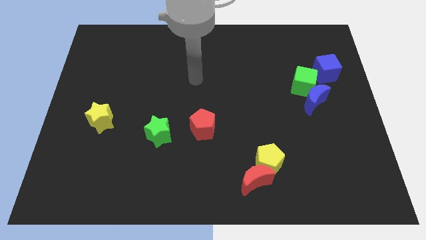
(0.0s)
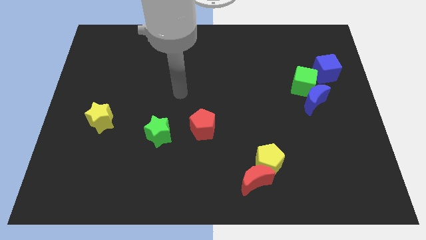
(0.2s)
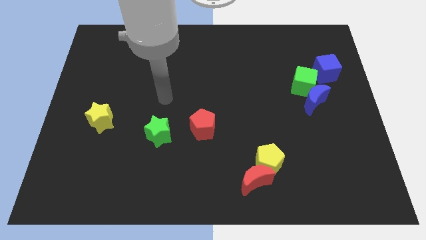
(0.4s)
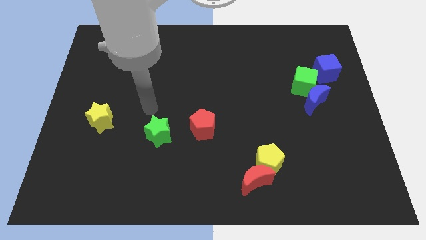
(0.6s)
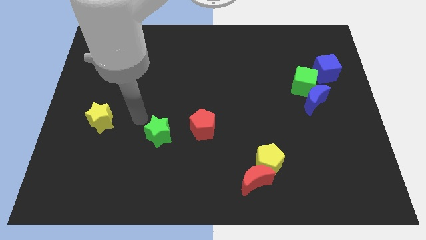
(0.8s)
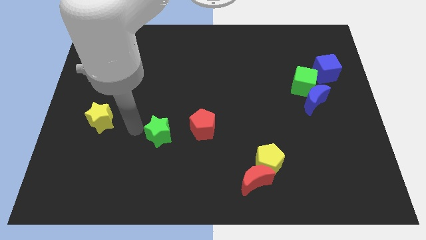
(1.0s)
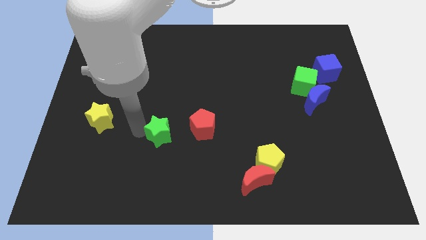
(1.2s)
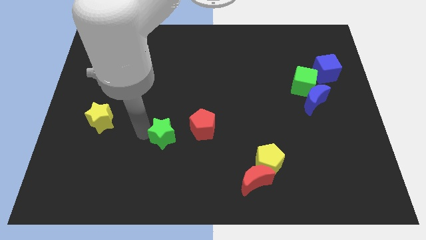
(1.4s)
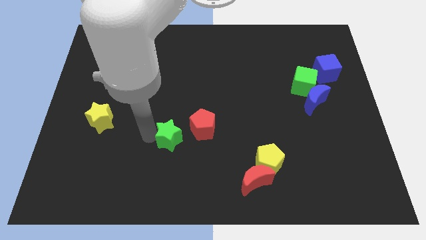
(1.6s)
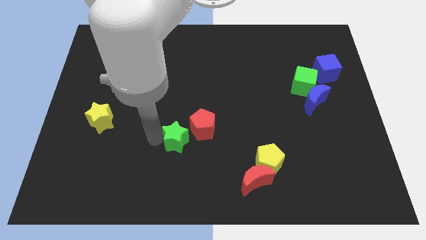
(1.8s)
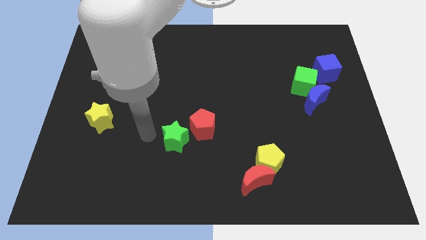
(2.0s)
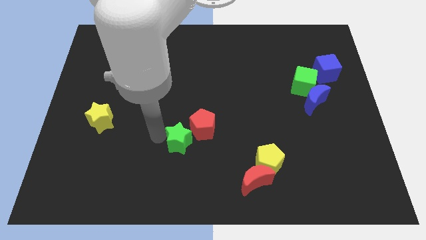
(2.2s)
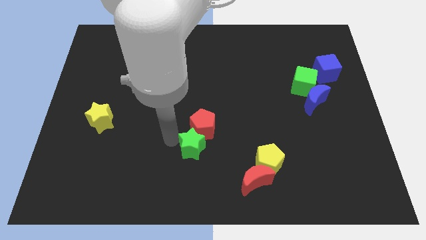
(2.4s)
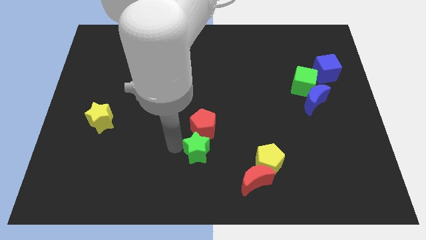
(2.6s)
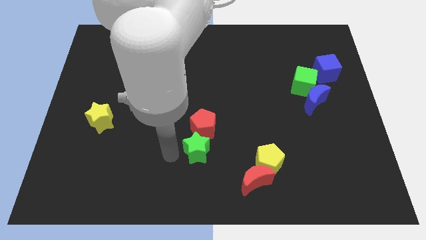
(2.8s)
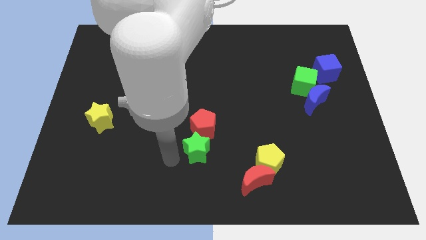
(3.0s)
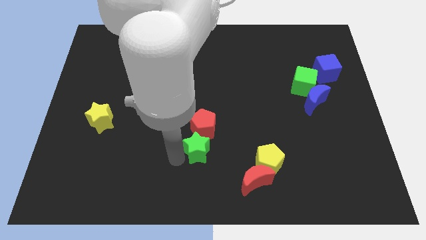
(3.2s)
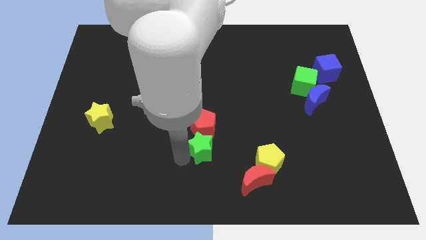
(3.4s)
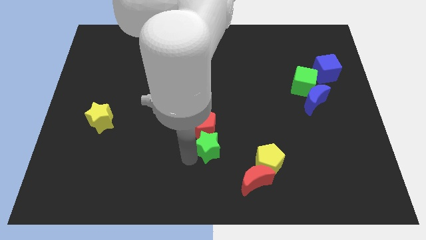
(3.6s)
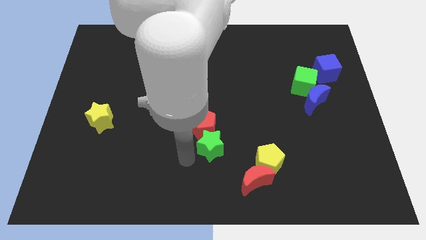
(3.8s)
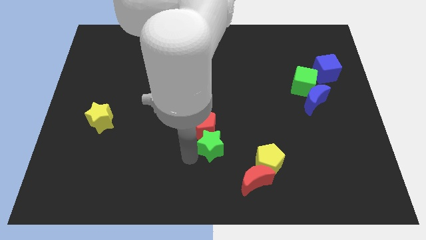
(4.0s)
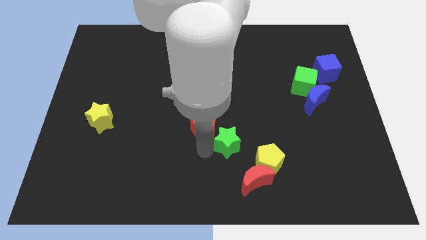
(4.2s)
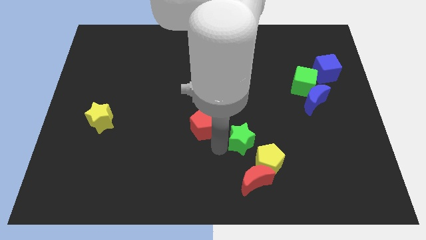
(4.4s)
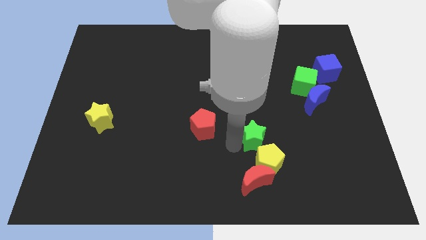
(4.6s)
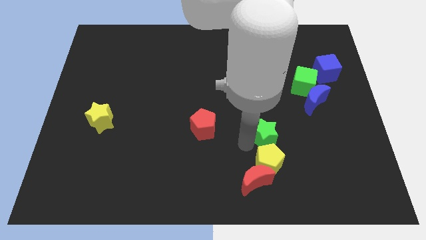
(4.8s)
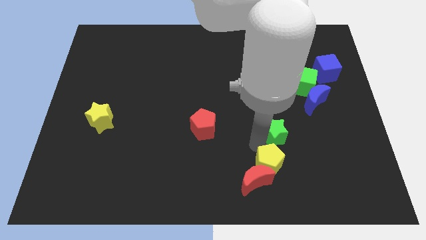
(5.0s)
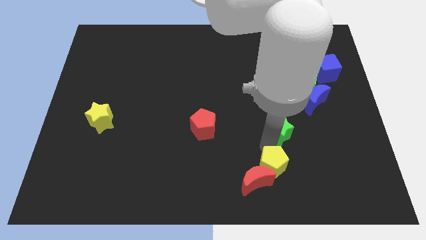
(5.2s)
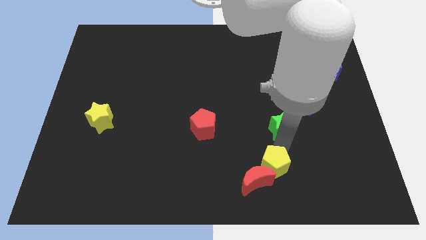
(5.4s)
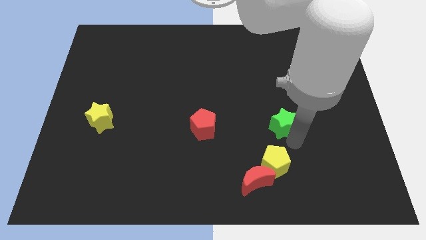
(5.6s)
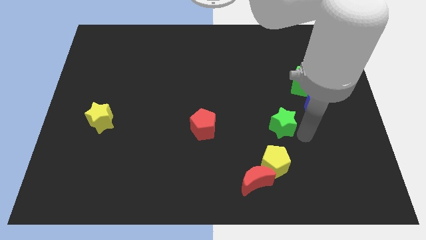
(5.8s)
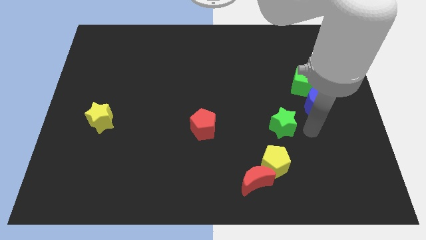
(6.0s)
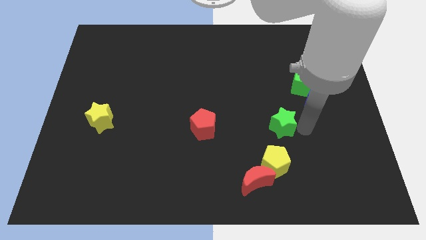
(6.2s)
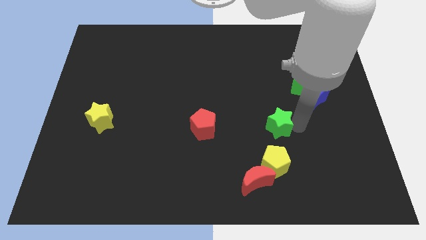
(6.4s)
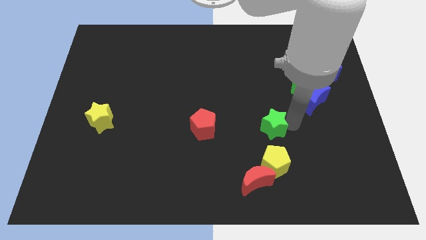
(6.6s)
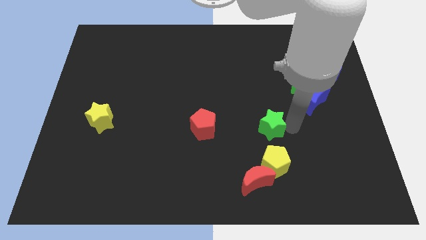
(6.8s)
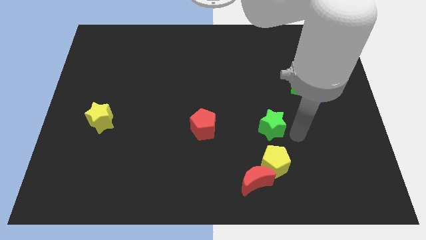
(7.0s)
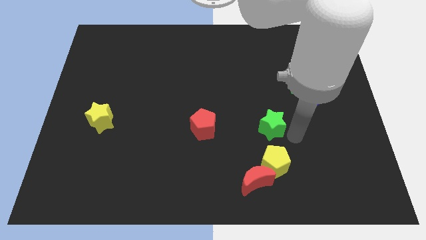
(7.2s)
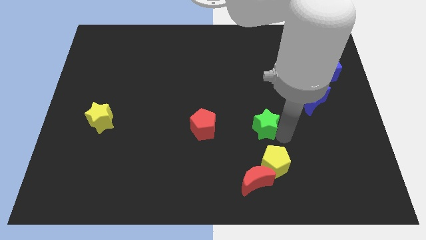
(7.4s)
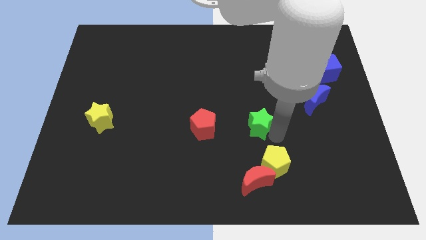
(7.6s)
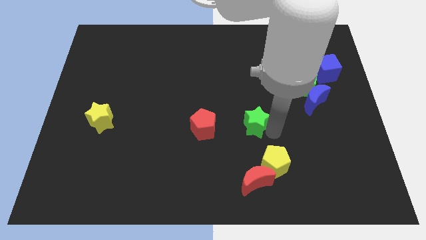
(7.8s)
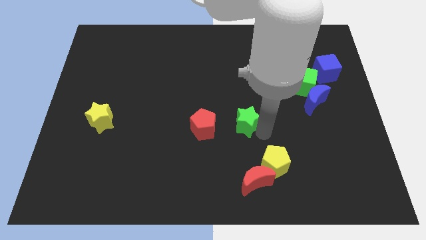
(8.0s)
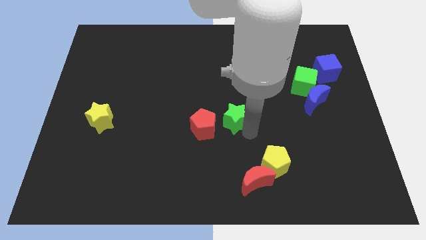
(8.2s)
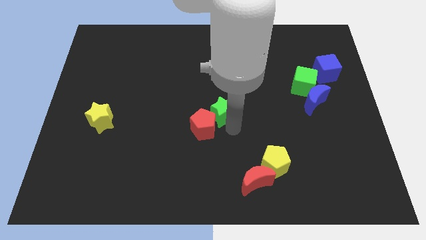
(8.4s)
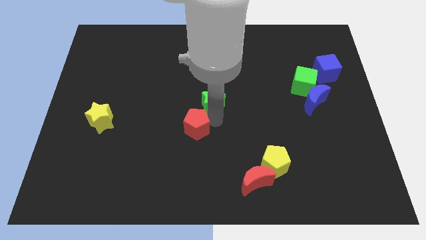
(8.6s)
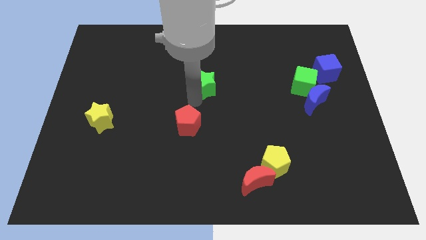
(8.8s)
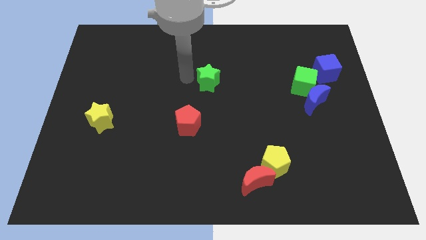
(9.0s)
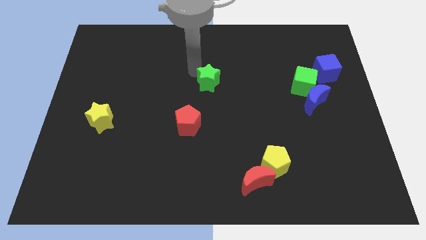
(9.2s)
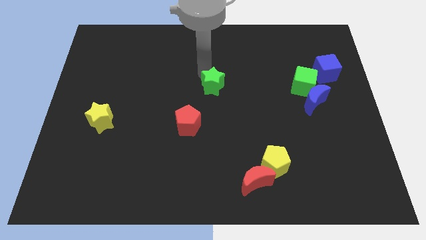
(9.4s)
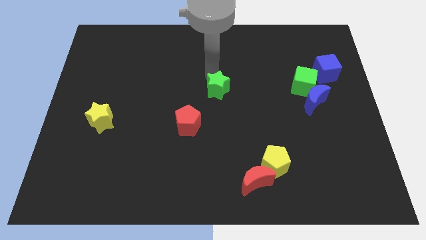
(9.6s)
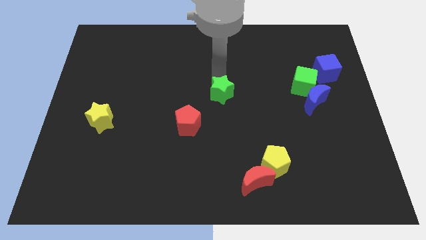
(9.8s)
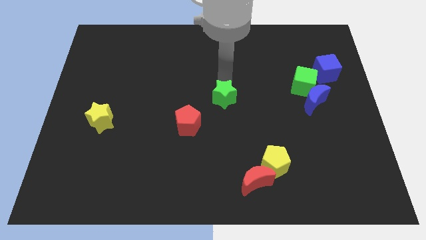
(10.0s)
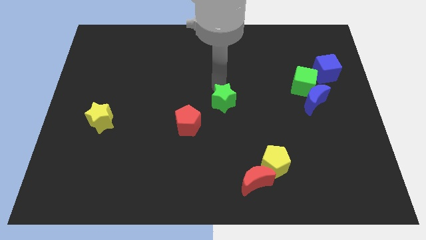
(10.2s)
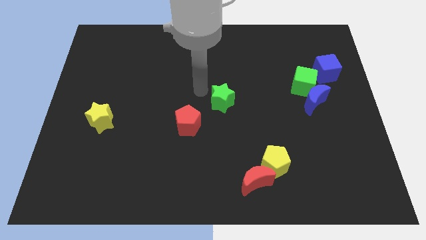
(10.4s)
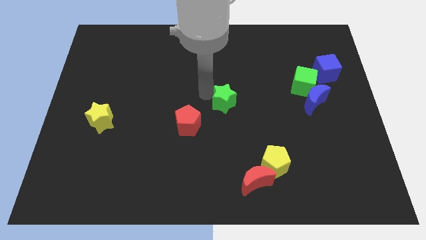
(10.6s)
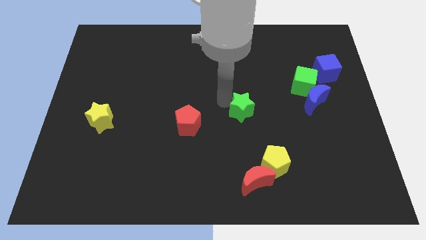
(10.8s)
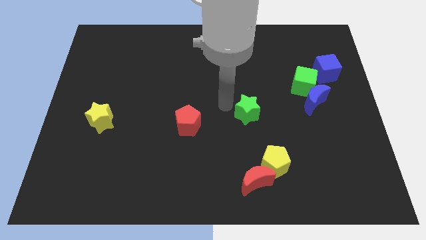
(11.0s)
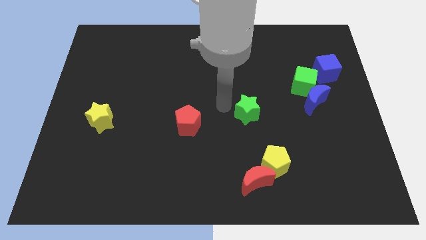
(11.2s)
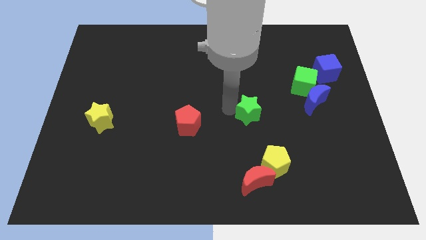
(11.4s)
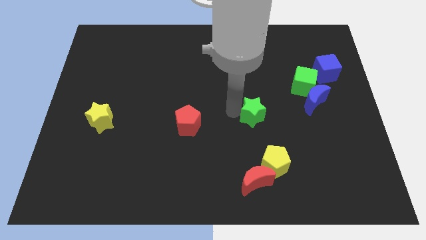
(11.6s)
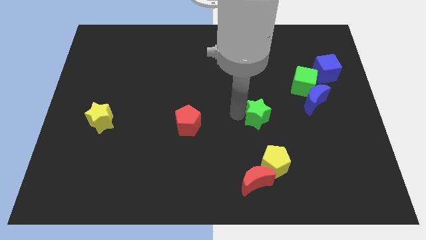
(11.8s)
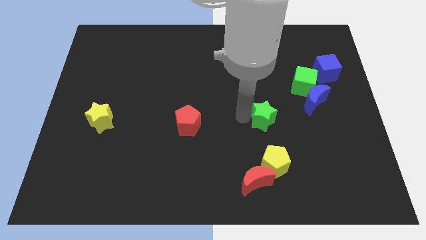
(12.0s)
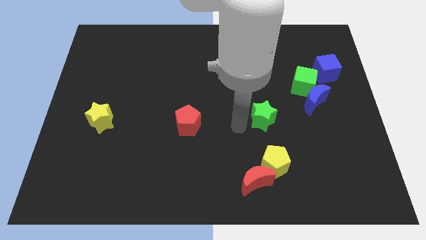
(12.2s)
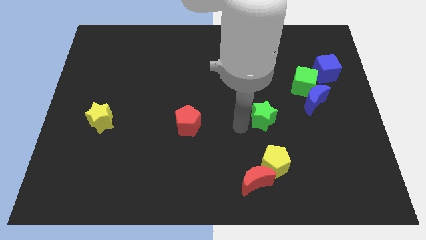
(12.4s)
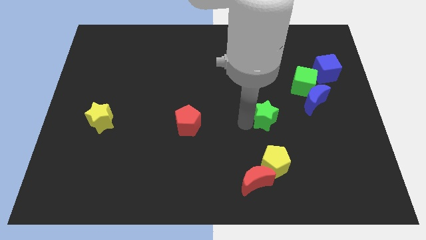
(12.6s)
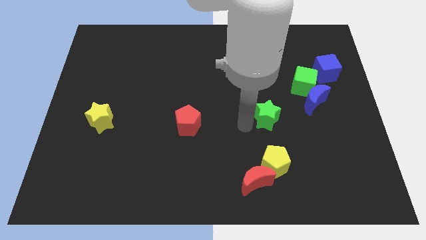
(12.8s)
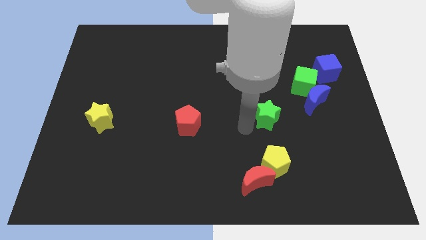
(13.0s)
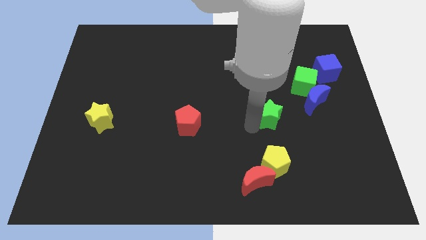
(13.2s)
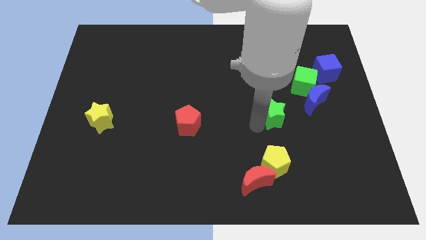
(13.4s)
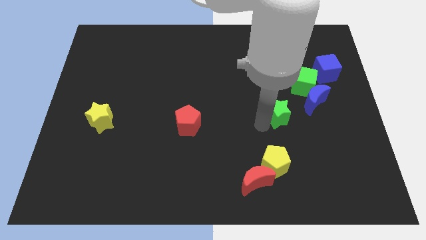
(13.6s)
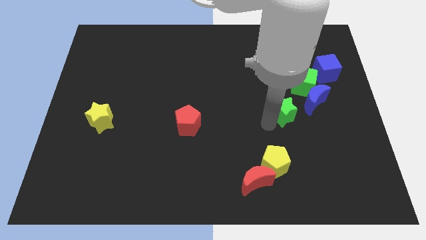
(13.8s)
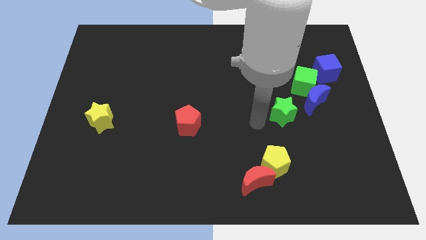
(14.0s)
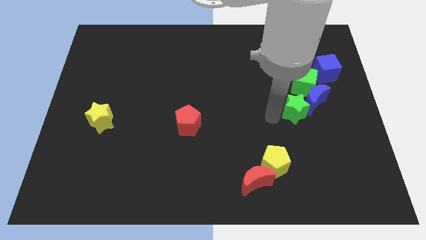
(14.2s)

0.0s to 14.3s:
put the green star to the blue moon
